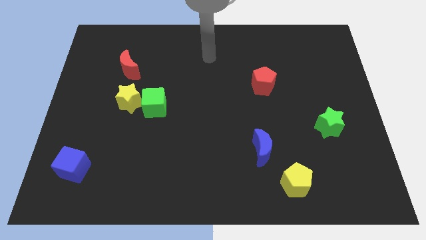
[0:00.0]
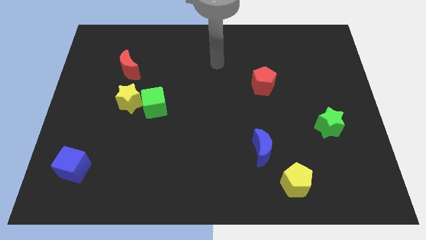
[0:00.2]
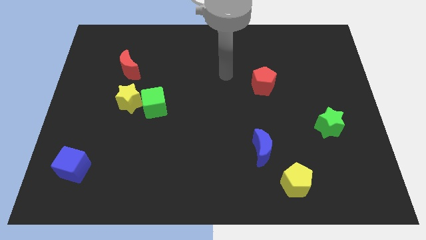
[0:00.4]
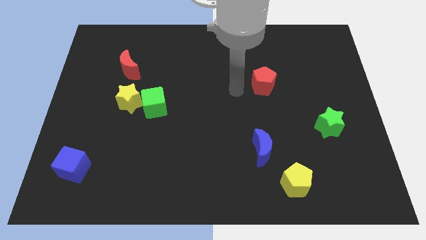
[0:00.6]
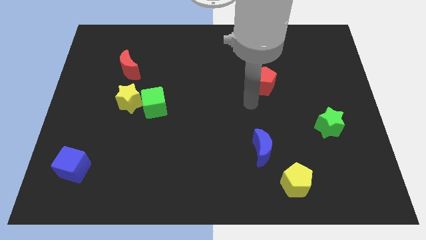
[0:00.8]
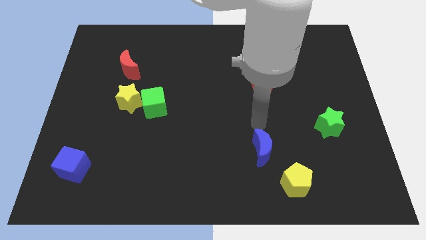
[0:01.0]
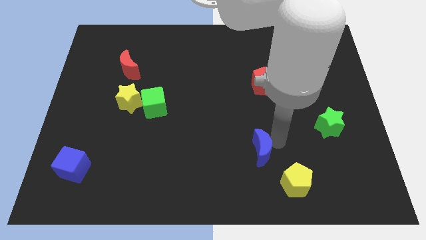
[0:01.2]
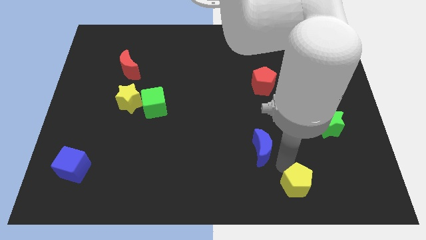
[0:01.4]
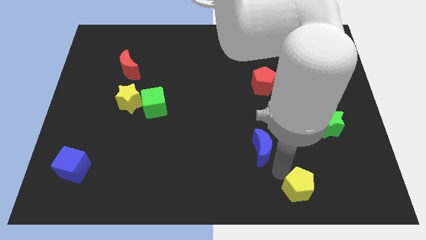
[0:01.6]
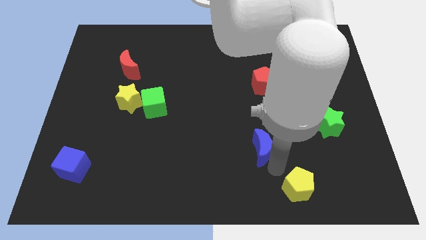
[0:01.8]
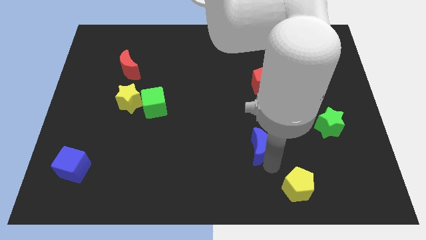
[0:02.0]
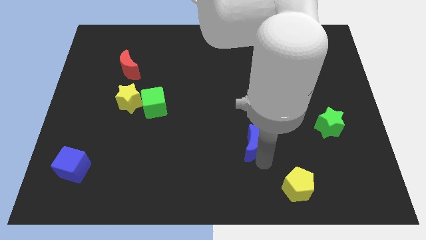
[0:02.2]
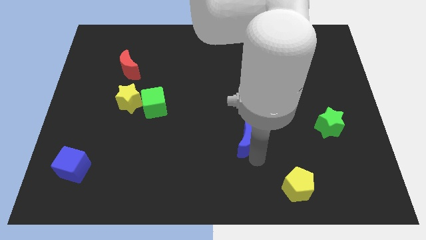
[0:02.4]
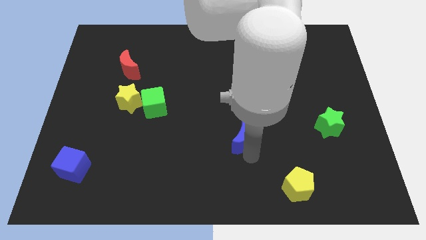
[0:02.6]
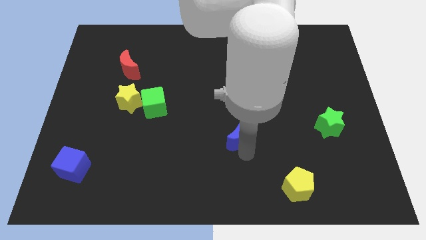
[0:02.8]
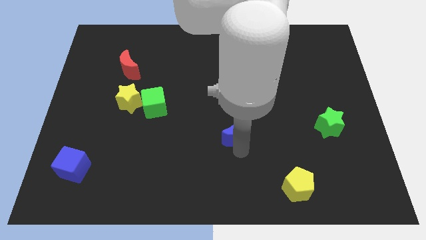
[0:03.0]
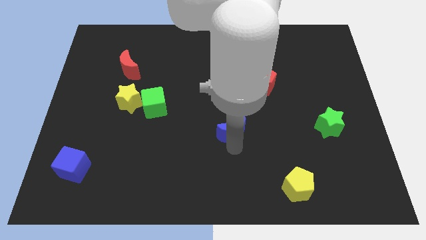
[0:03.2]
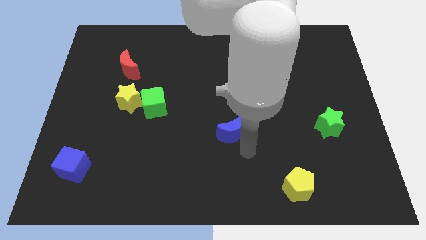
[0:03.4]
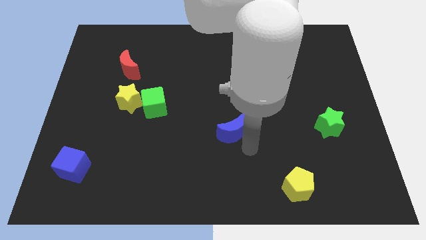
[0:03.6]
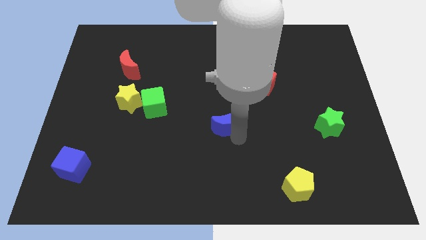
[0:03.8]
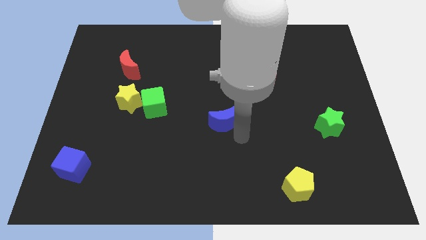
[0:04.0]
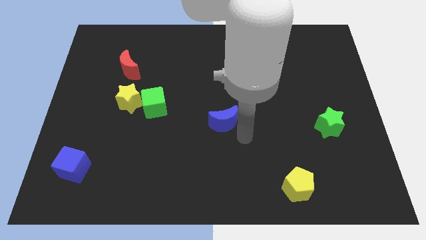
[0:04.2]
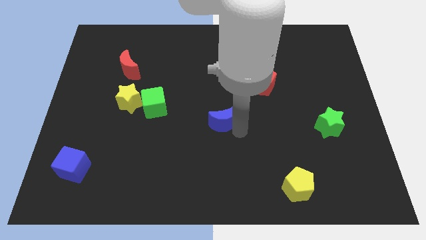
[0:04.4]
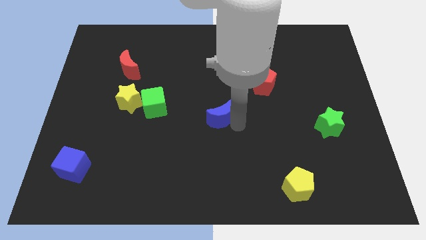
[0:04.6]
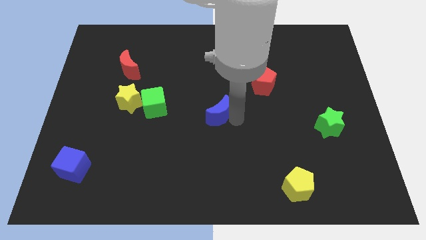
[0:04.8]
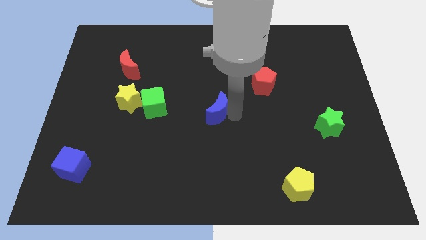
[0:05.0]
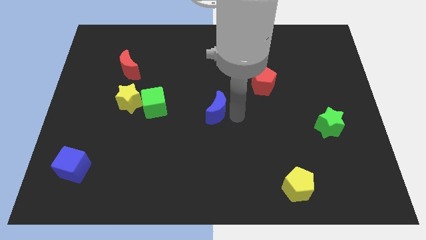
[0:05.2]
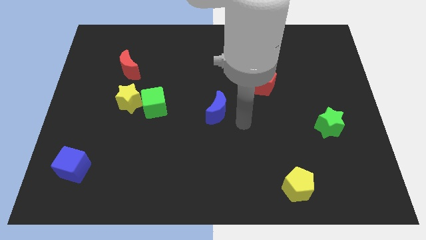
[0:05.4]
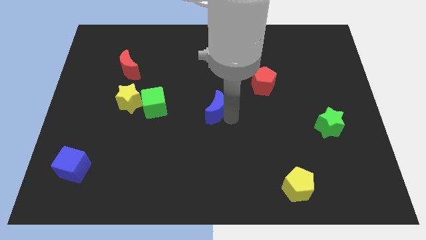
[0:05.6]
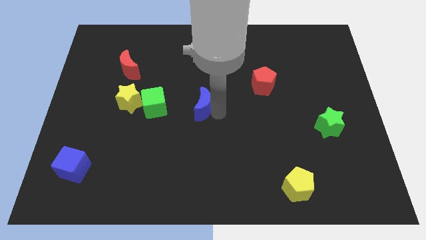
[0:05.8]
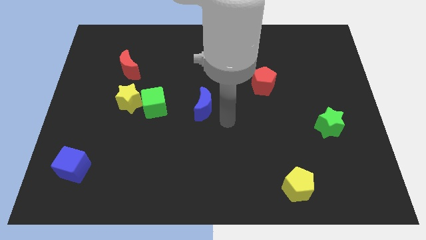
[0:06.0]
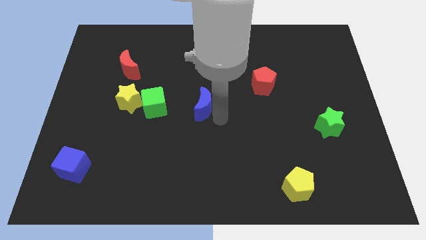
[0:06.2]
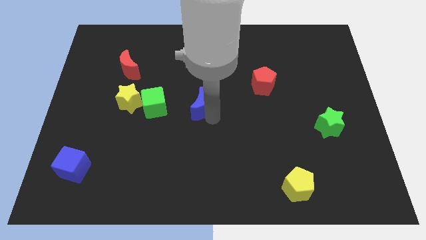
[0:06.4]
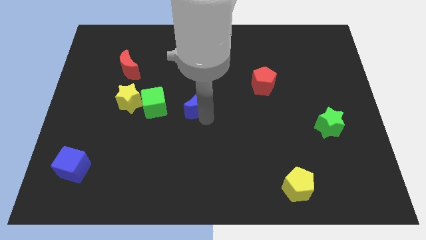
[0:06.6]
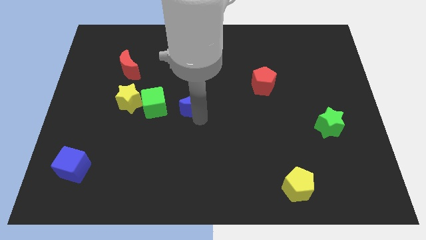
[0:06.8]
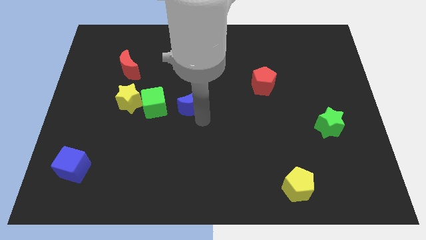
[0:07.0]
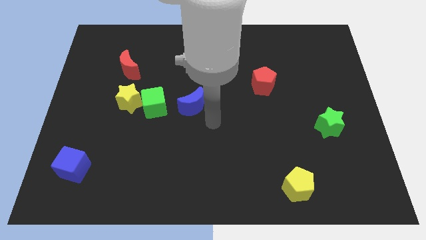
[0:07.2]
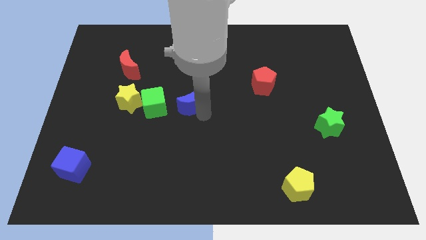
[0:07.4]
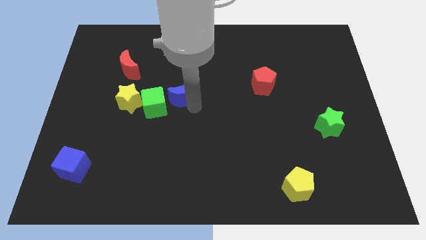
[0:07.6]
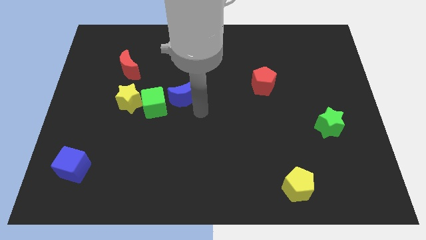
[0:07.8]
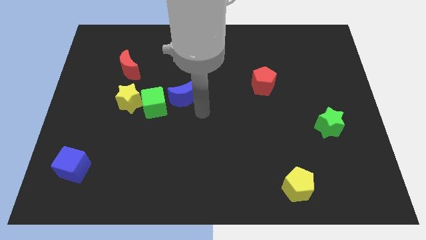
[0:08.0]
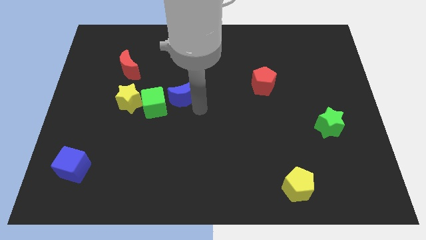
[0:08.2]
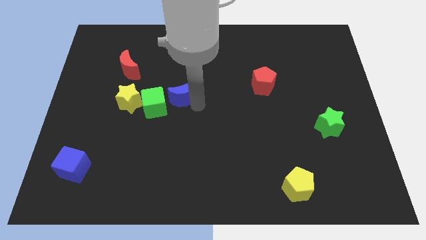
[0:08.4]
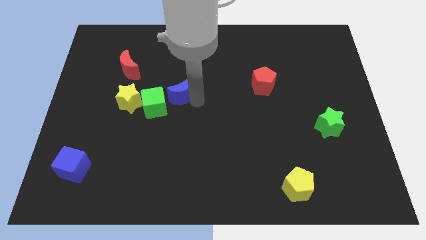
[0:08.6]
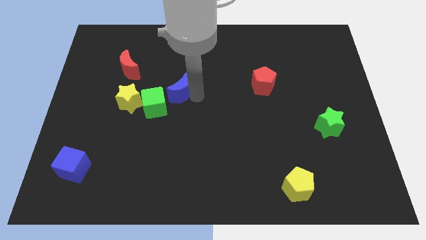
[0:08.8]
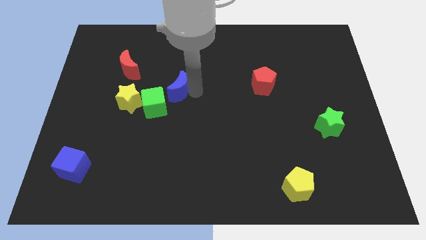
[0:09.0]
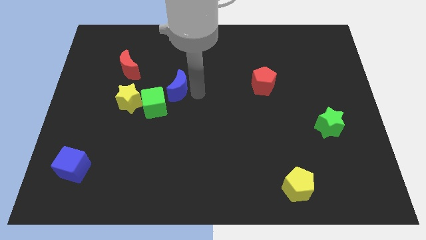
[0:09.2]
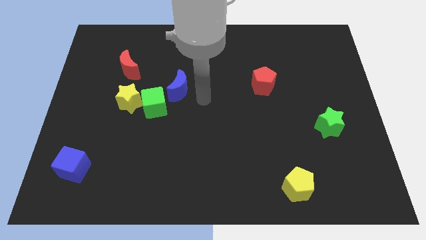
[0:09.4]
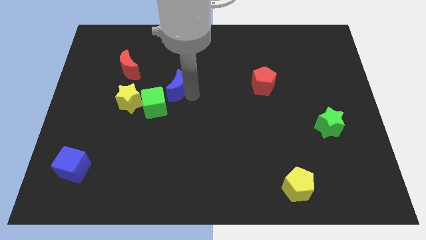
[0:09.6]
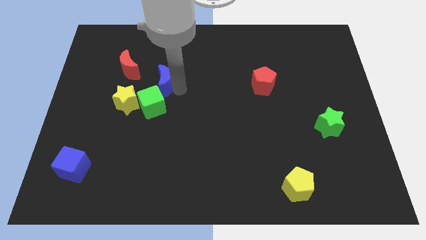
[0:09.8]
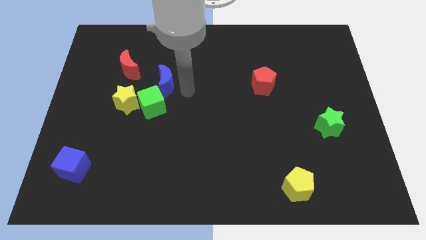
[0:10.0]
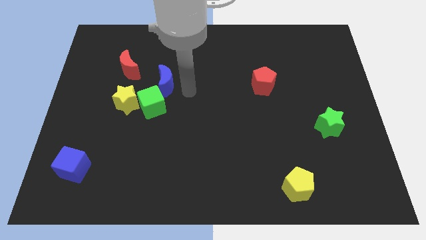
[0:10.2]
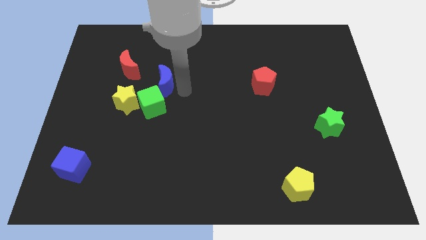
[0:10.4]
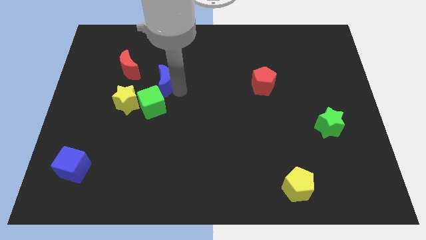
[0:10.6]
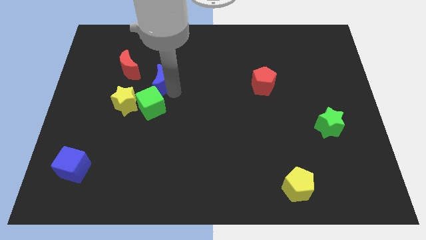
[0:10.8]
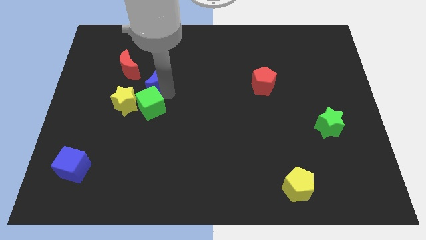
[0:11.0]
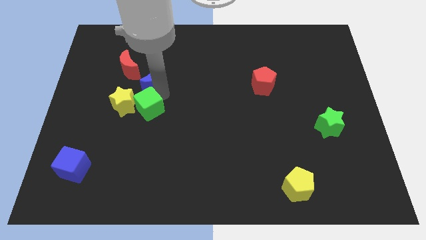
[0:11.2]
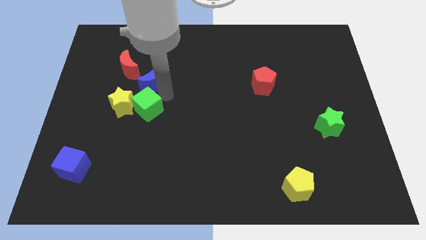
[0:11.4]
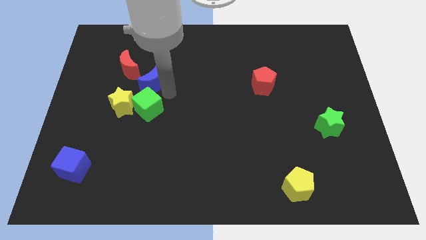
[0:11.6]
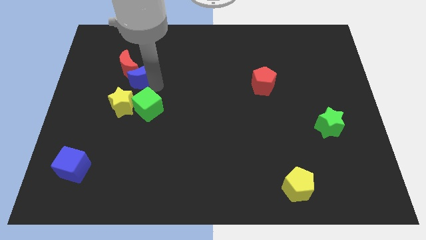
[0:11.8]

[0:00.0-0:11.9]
slide the blue moon close to the red moon

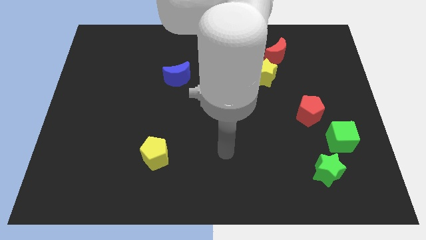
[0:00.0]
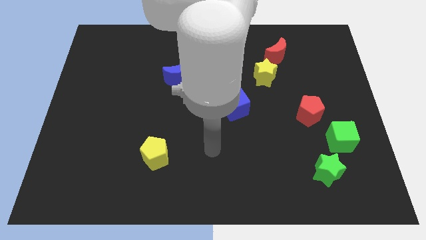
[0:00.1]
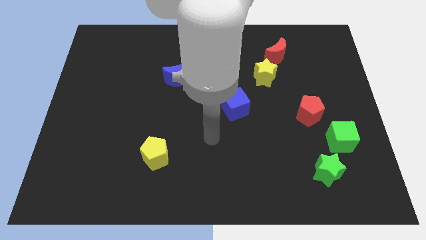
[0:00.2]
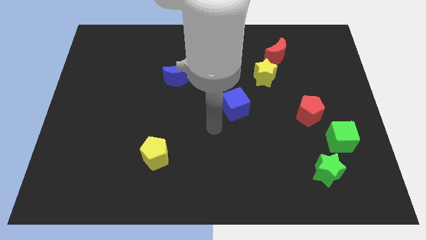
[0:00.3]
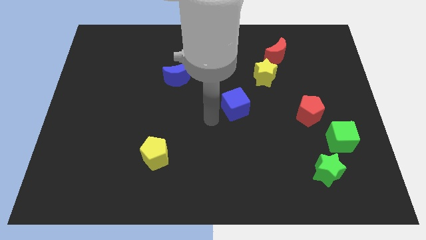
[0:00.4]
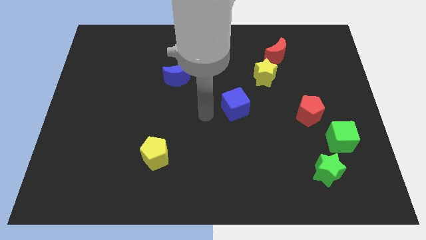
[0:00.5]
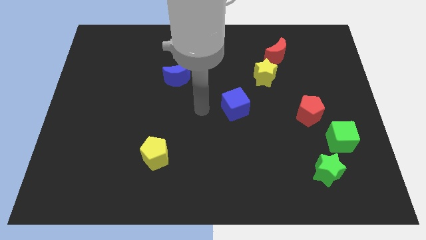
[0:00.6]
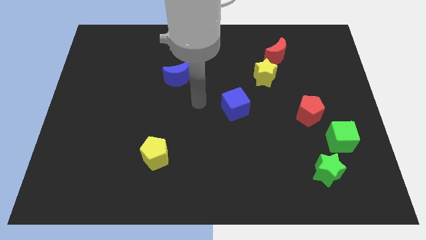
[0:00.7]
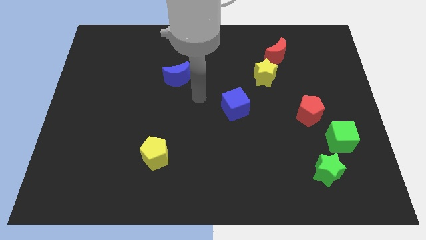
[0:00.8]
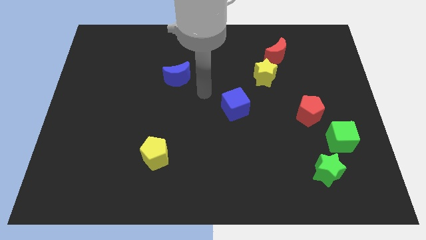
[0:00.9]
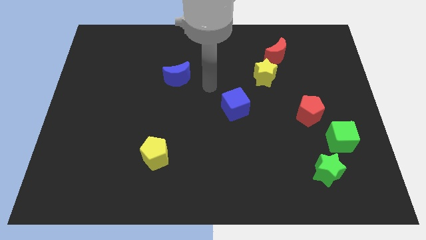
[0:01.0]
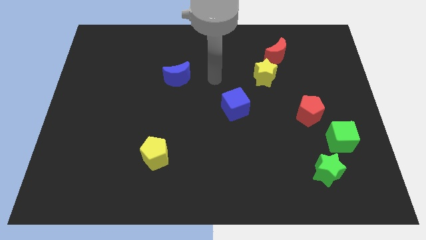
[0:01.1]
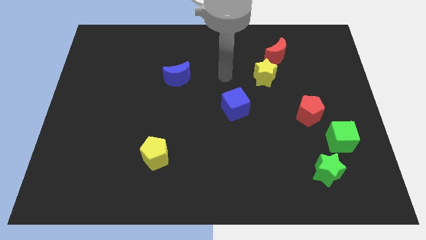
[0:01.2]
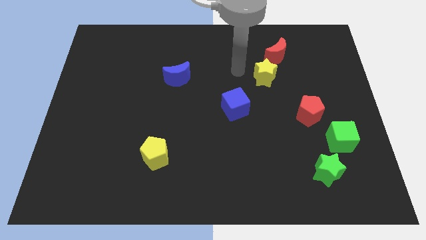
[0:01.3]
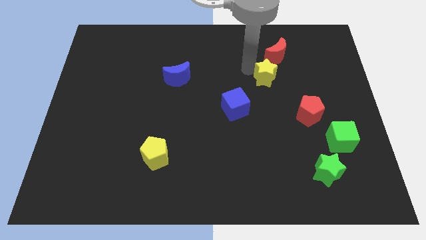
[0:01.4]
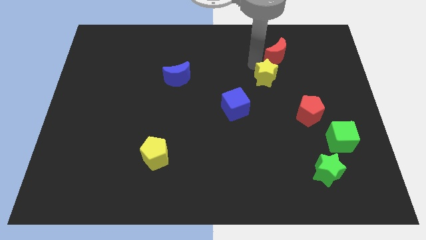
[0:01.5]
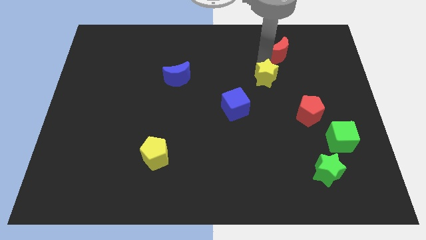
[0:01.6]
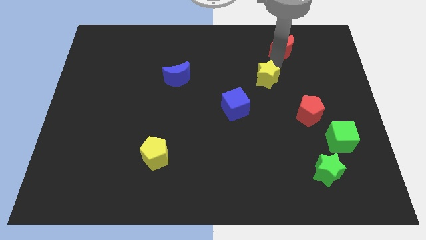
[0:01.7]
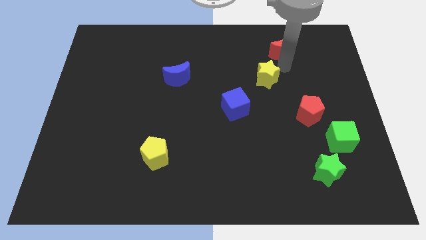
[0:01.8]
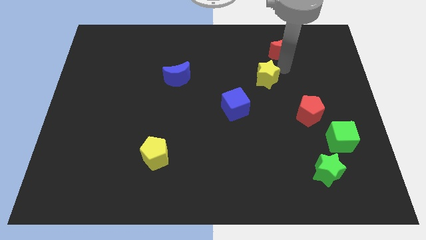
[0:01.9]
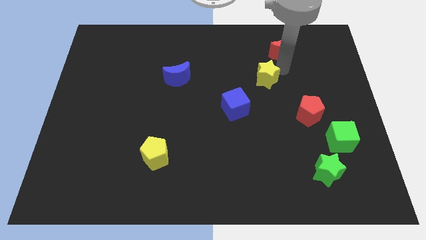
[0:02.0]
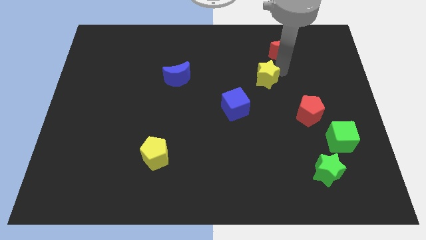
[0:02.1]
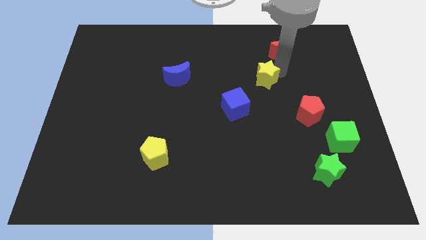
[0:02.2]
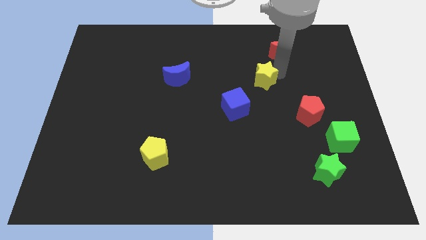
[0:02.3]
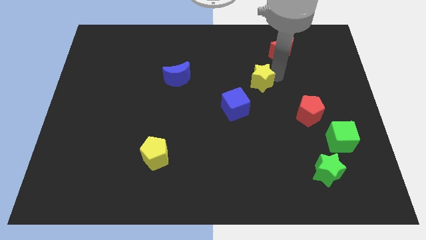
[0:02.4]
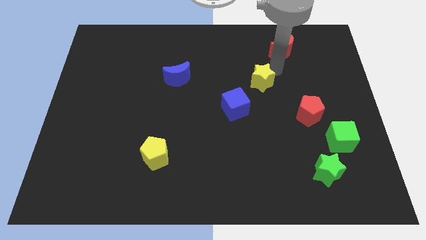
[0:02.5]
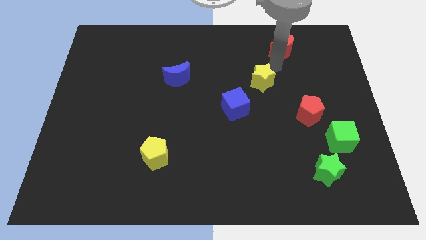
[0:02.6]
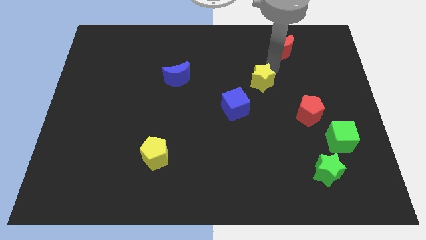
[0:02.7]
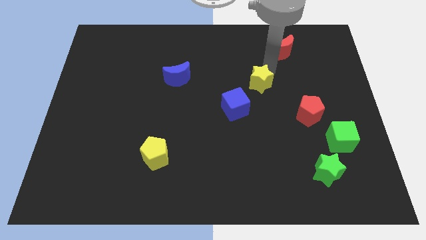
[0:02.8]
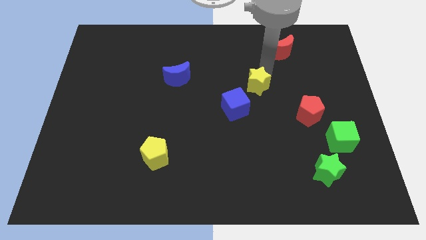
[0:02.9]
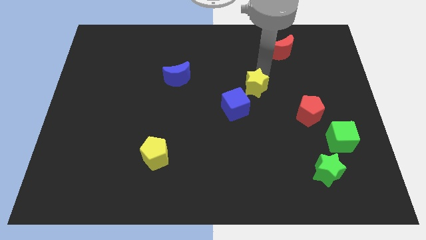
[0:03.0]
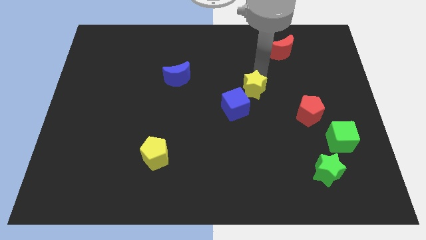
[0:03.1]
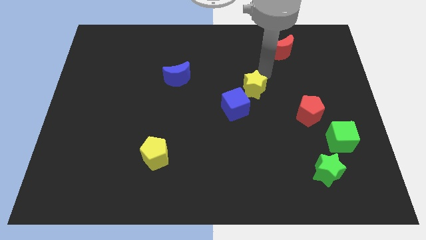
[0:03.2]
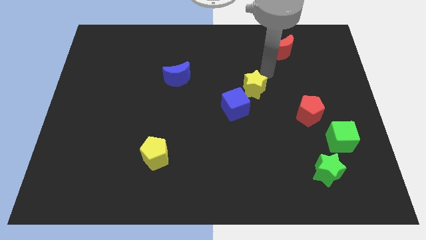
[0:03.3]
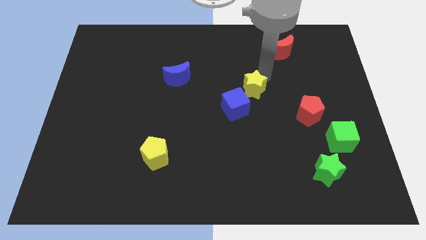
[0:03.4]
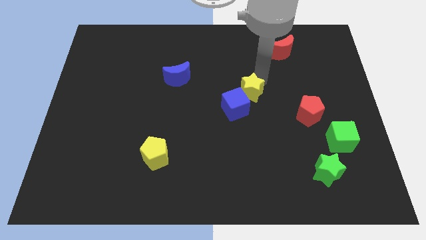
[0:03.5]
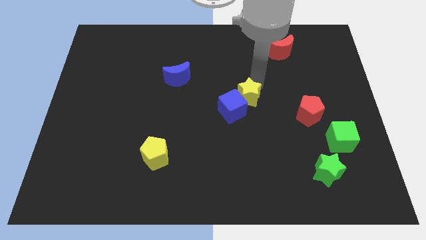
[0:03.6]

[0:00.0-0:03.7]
push the yellow star close to the blue cube
